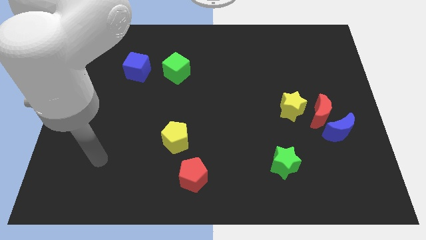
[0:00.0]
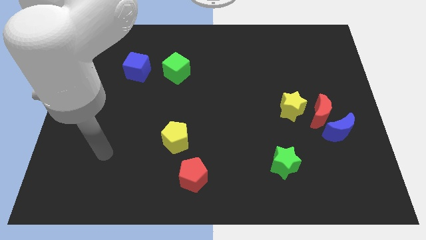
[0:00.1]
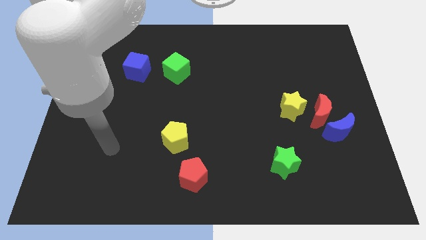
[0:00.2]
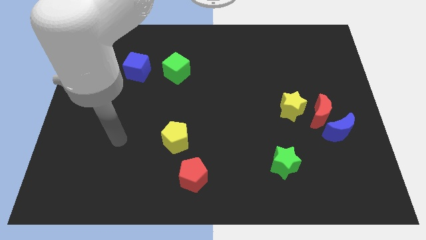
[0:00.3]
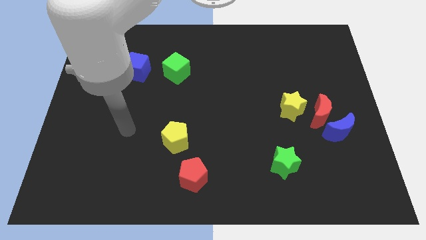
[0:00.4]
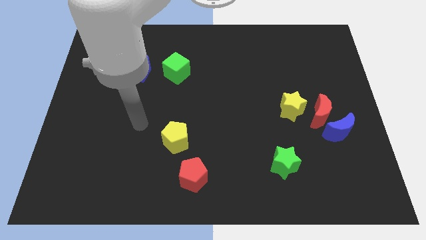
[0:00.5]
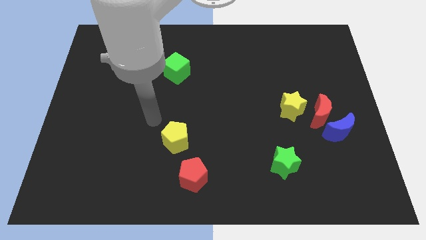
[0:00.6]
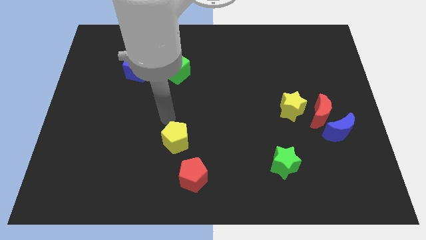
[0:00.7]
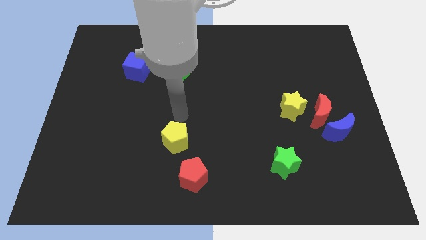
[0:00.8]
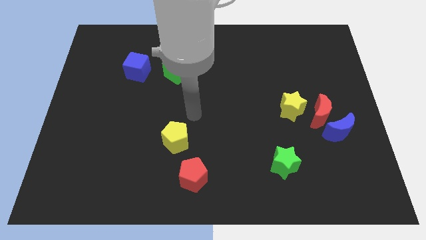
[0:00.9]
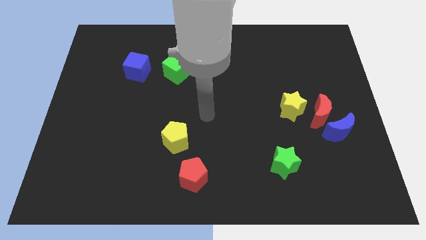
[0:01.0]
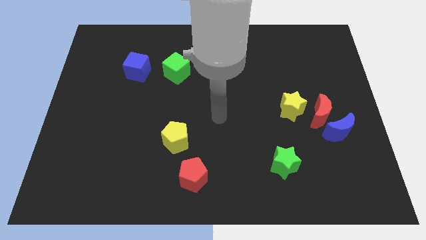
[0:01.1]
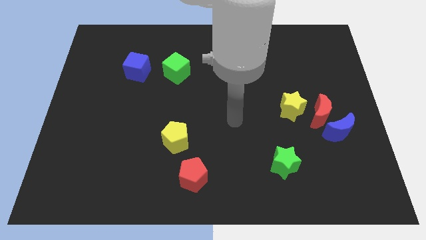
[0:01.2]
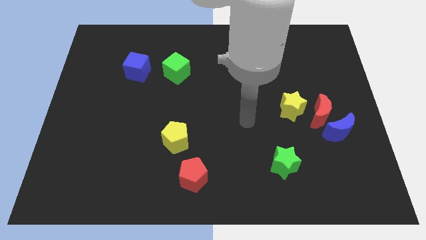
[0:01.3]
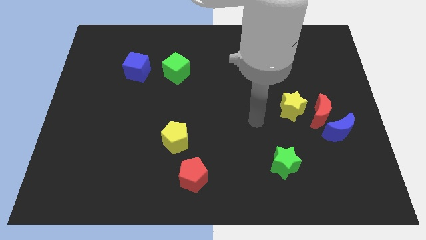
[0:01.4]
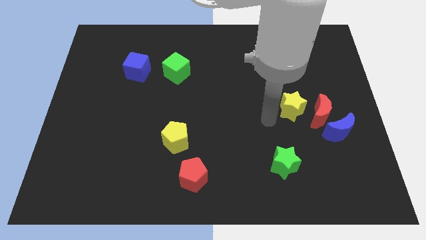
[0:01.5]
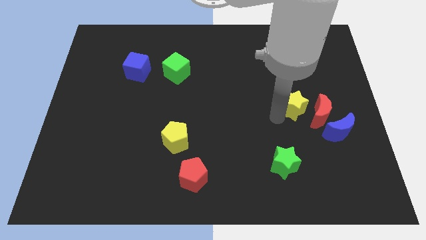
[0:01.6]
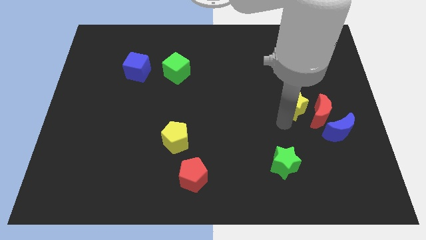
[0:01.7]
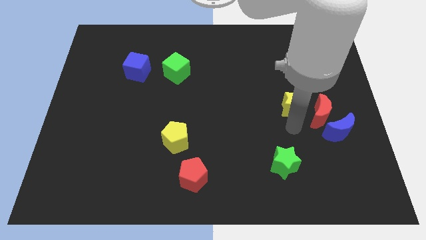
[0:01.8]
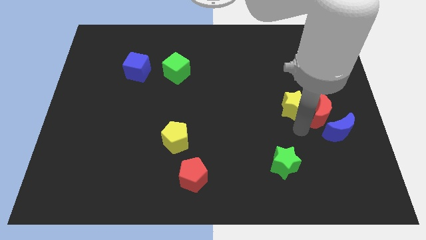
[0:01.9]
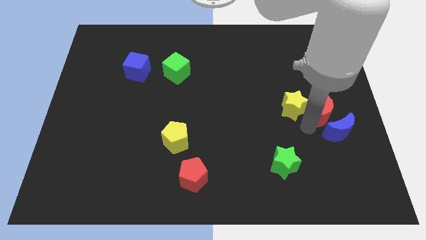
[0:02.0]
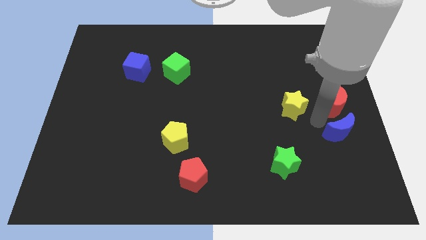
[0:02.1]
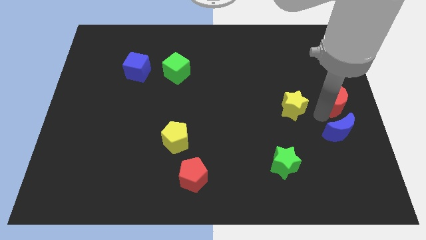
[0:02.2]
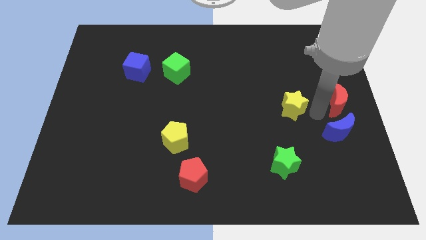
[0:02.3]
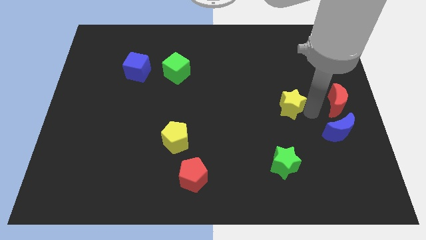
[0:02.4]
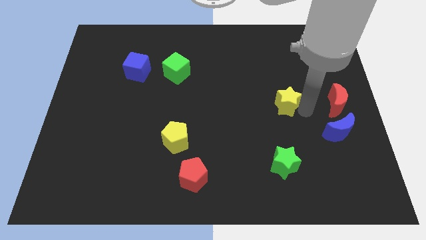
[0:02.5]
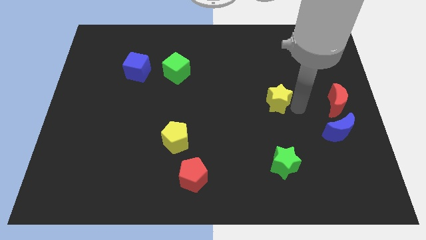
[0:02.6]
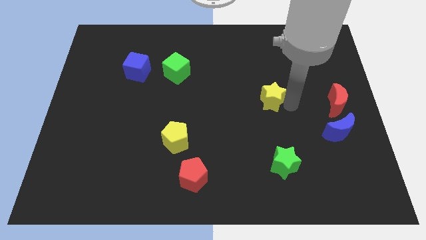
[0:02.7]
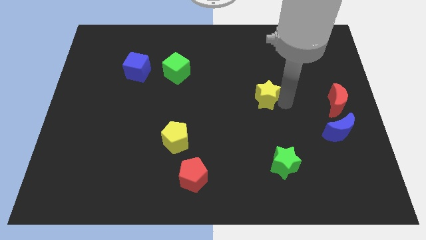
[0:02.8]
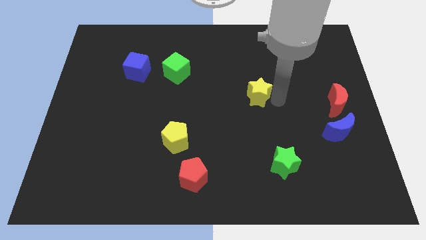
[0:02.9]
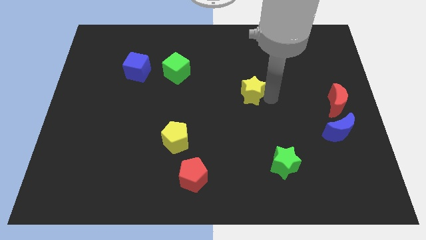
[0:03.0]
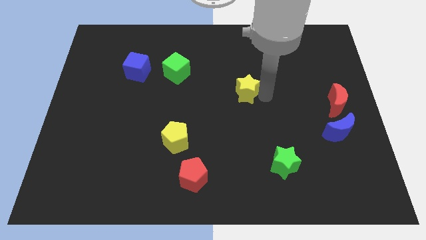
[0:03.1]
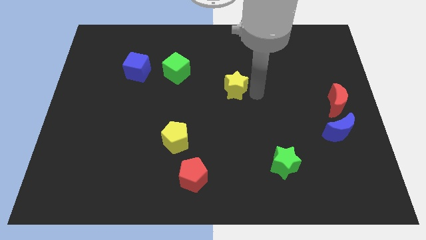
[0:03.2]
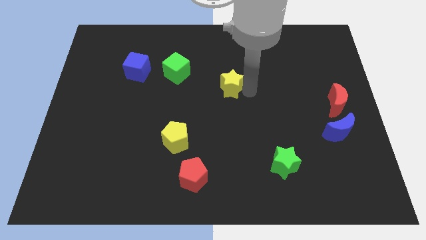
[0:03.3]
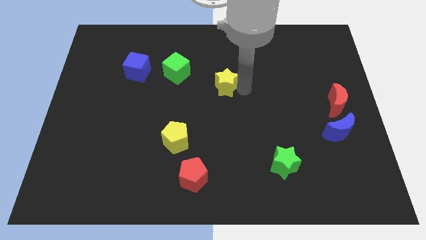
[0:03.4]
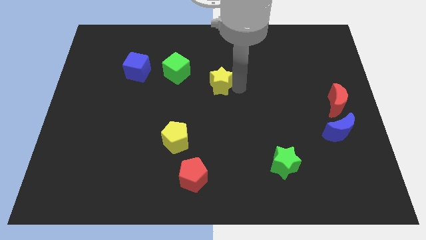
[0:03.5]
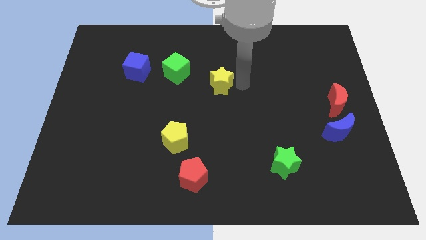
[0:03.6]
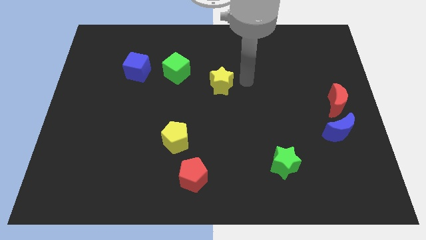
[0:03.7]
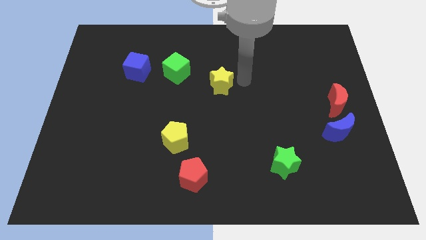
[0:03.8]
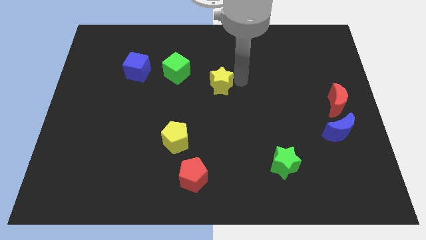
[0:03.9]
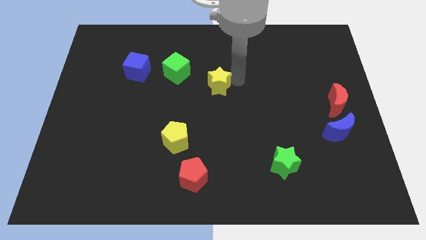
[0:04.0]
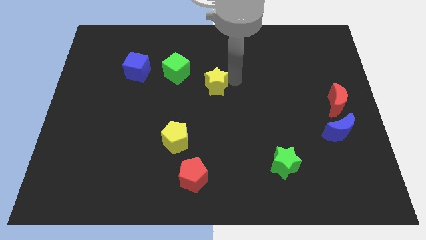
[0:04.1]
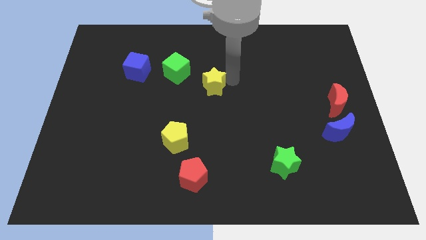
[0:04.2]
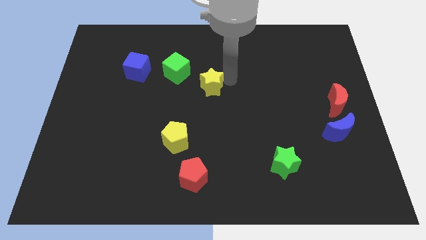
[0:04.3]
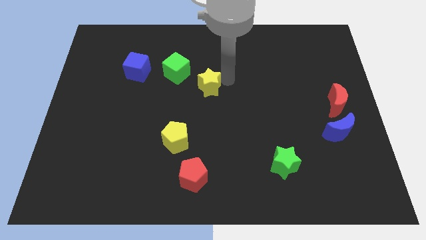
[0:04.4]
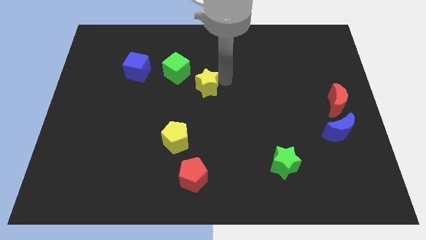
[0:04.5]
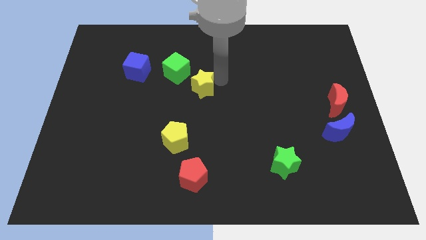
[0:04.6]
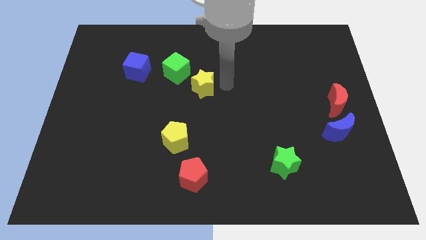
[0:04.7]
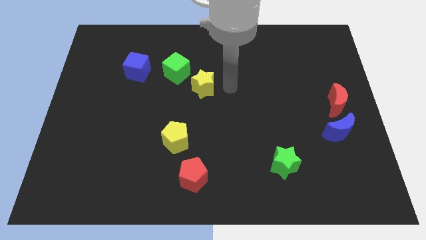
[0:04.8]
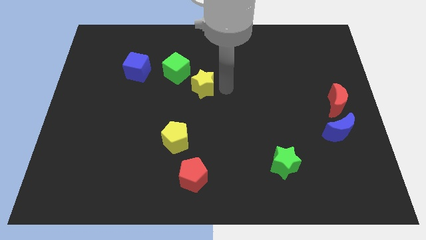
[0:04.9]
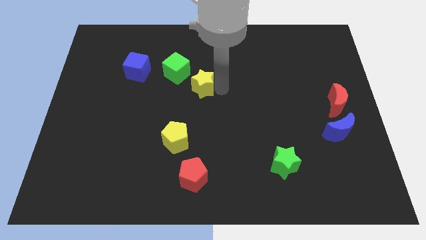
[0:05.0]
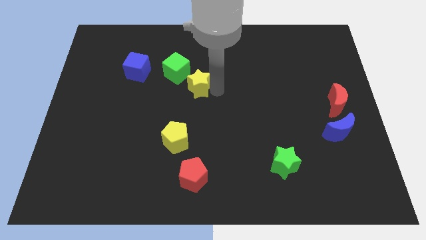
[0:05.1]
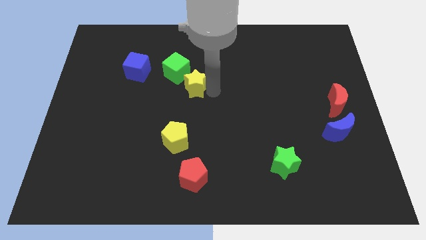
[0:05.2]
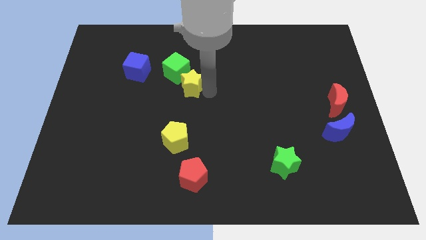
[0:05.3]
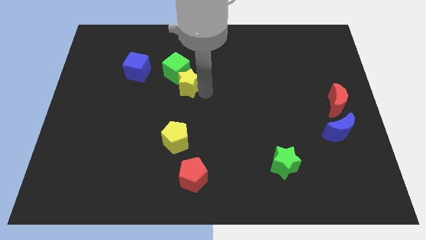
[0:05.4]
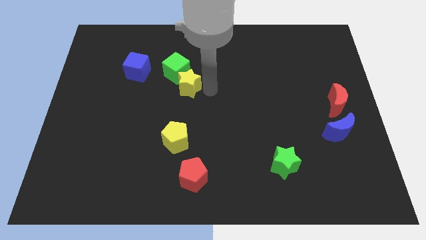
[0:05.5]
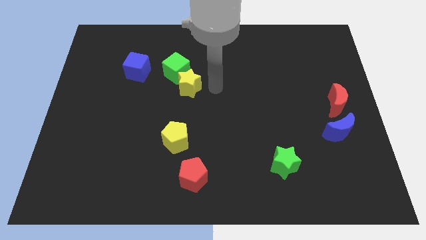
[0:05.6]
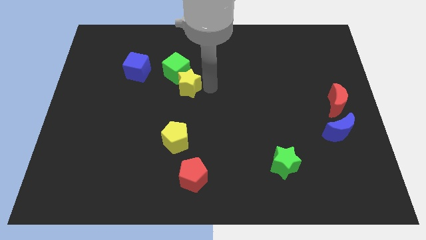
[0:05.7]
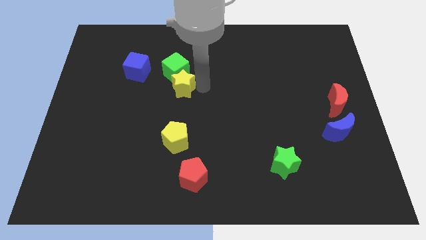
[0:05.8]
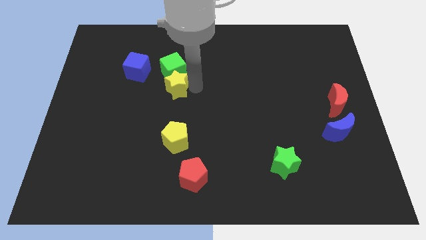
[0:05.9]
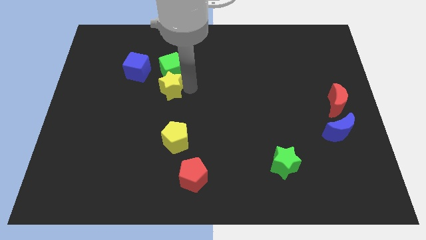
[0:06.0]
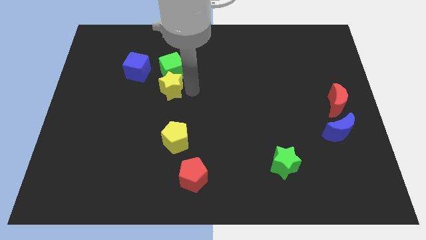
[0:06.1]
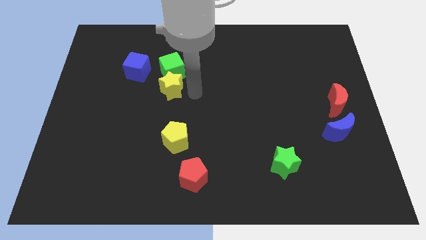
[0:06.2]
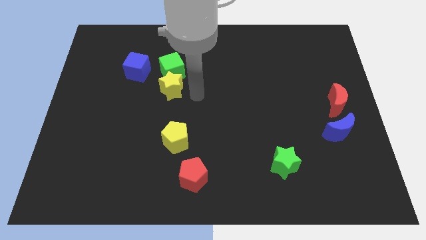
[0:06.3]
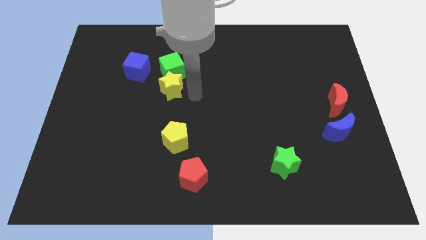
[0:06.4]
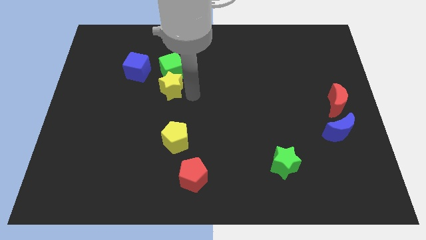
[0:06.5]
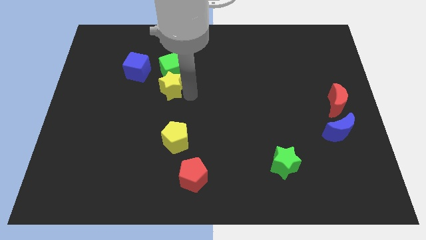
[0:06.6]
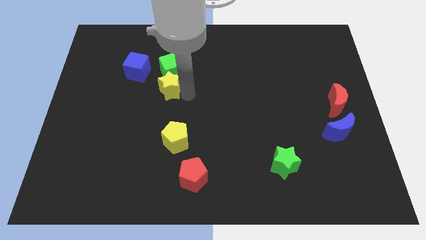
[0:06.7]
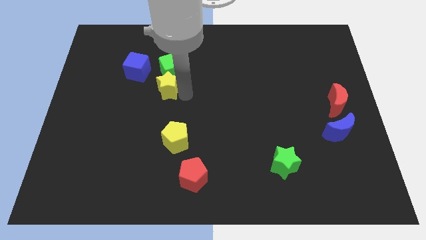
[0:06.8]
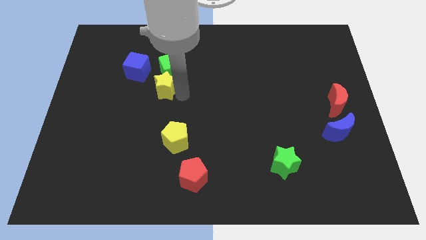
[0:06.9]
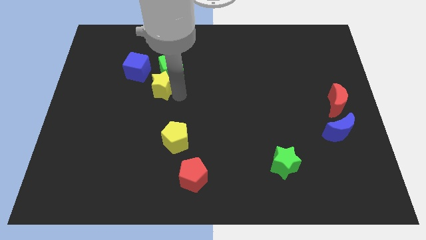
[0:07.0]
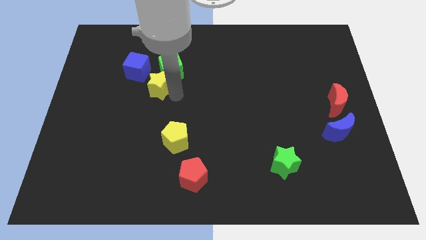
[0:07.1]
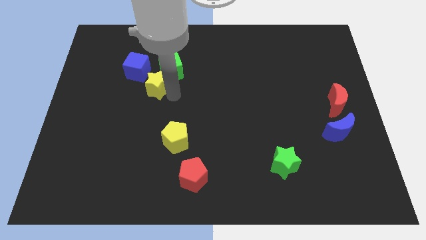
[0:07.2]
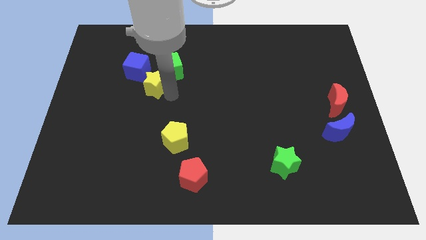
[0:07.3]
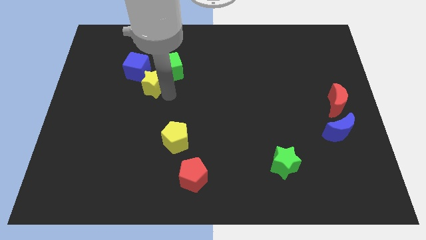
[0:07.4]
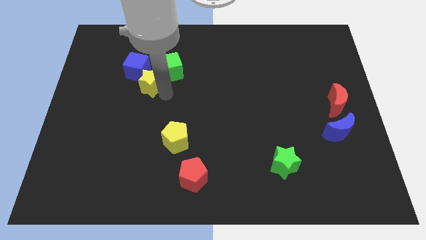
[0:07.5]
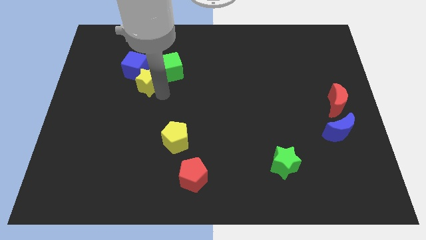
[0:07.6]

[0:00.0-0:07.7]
slide the yellow star towards the blue cube
